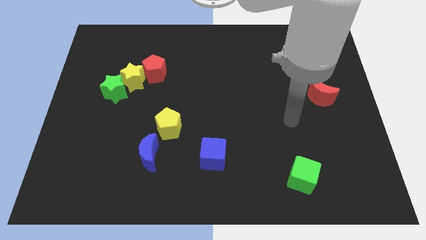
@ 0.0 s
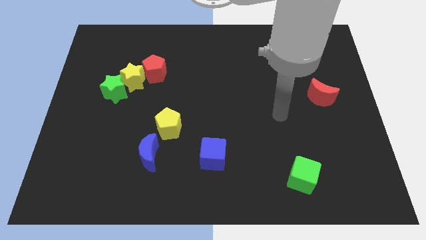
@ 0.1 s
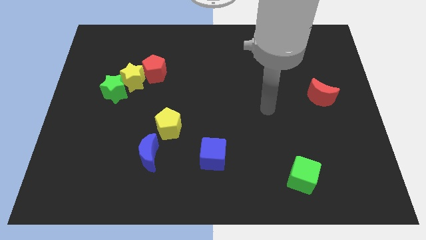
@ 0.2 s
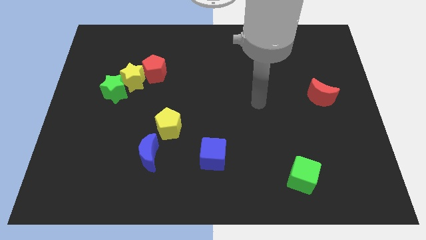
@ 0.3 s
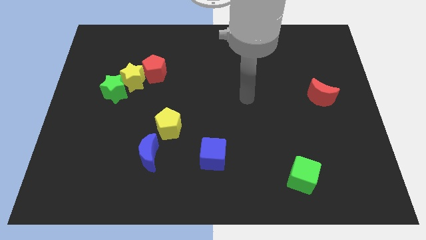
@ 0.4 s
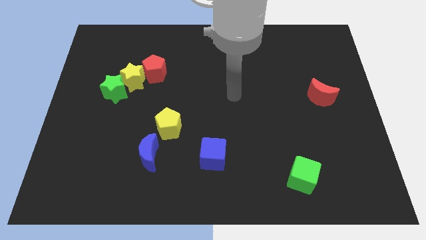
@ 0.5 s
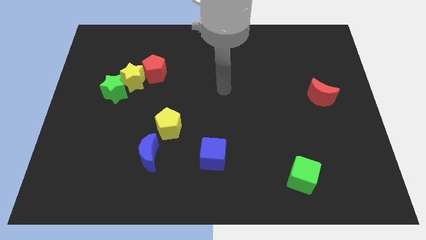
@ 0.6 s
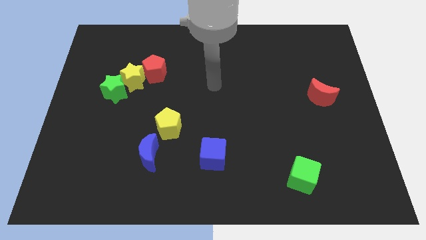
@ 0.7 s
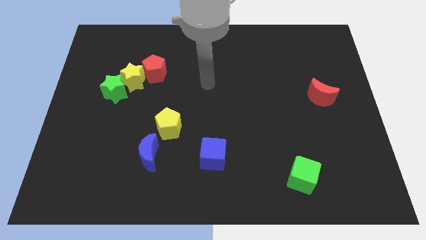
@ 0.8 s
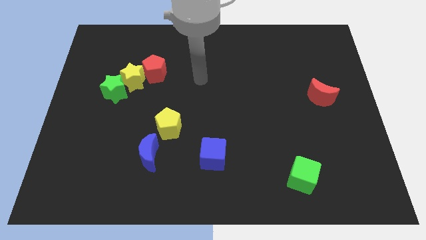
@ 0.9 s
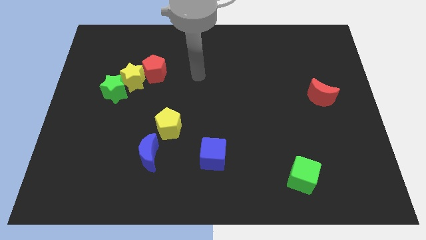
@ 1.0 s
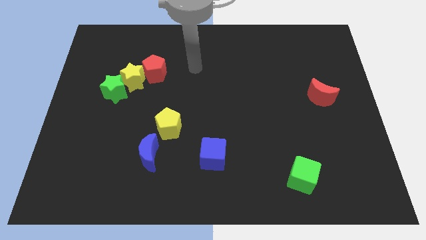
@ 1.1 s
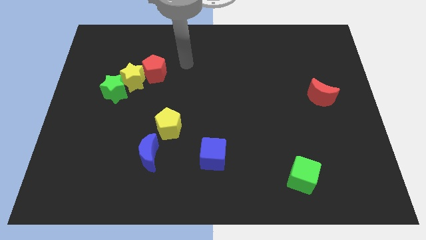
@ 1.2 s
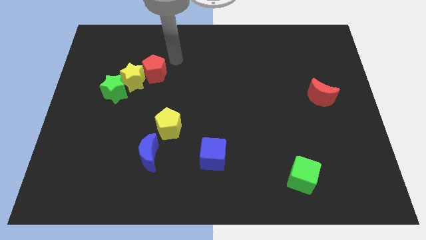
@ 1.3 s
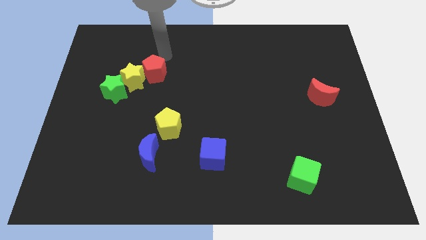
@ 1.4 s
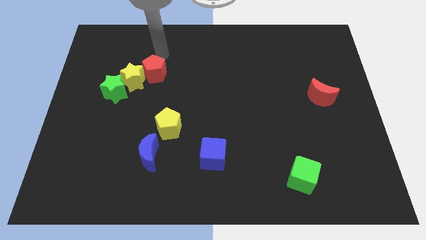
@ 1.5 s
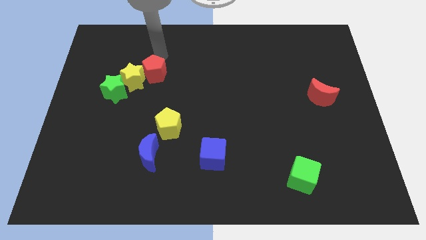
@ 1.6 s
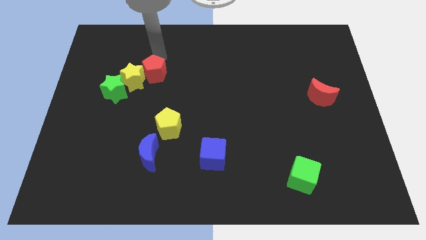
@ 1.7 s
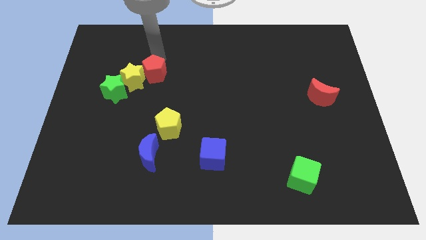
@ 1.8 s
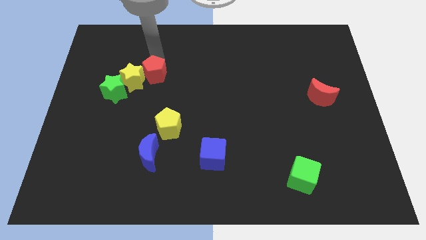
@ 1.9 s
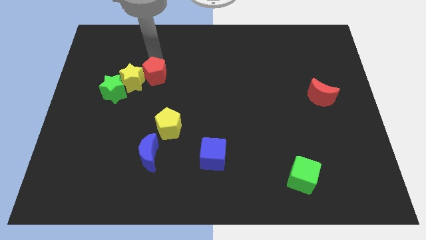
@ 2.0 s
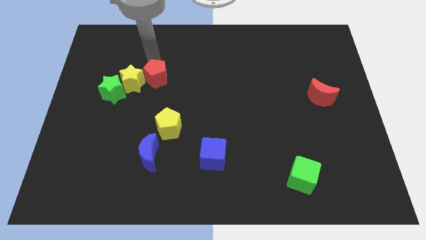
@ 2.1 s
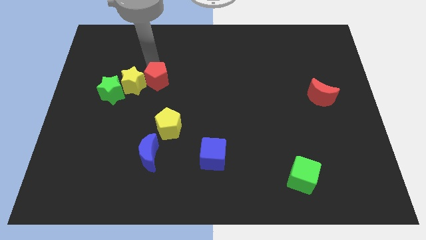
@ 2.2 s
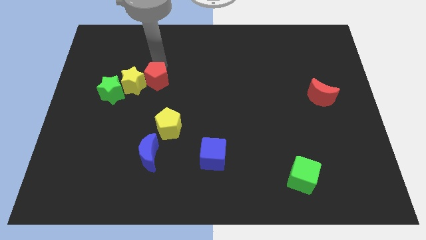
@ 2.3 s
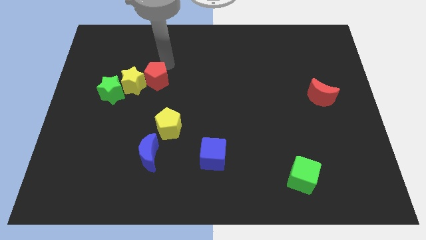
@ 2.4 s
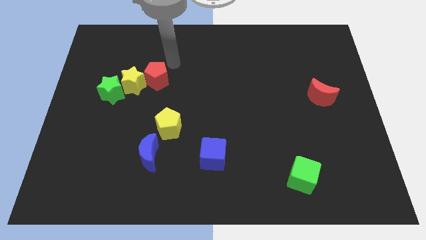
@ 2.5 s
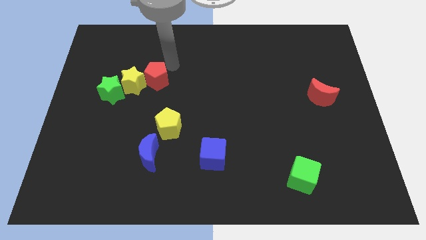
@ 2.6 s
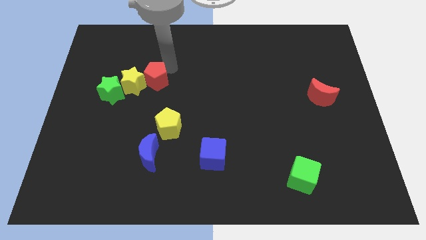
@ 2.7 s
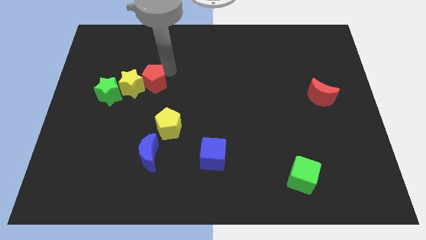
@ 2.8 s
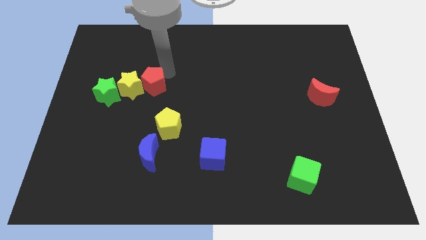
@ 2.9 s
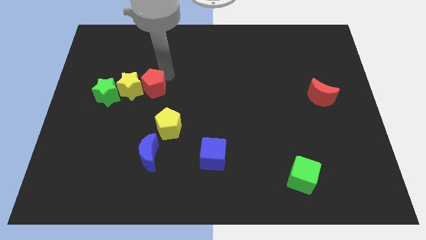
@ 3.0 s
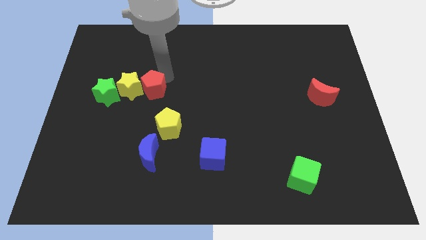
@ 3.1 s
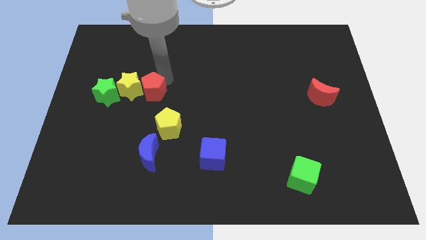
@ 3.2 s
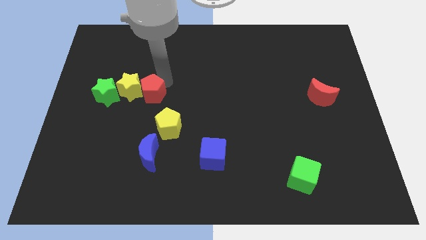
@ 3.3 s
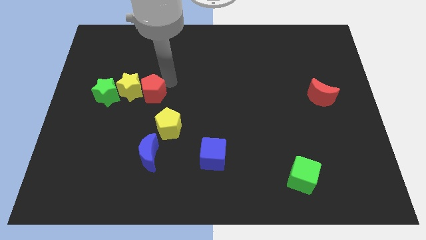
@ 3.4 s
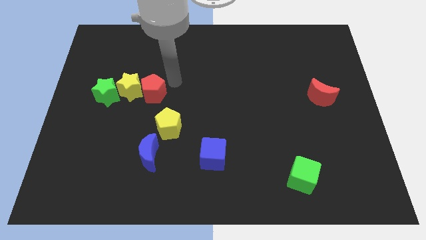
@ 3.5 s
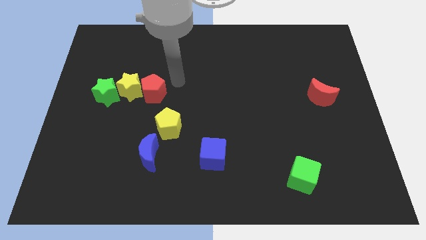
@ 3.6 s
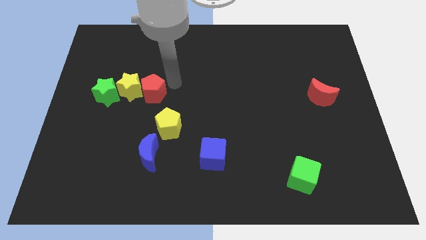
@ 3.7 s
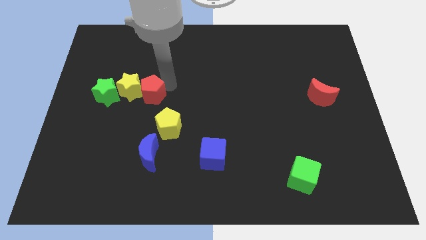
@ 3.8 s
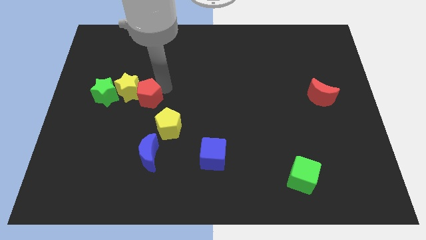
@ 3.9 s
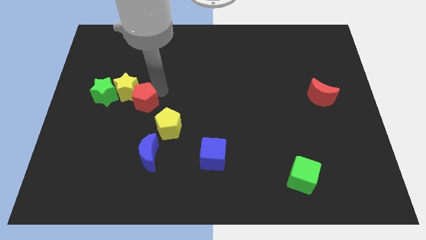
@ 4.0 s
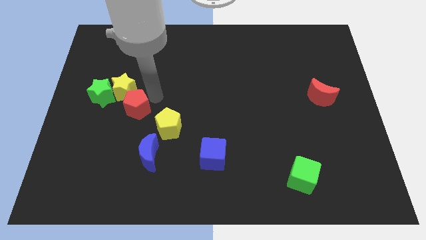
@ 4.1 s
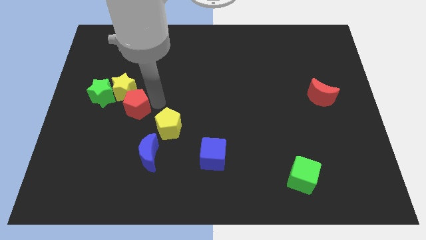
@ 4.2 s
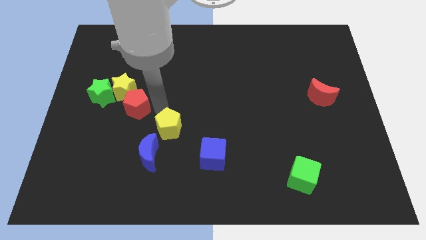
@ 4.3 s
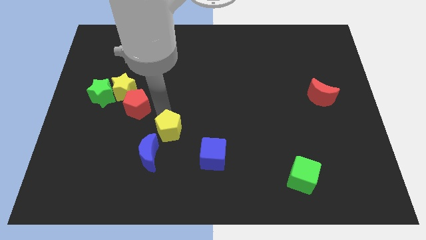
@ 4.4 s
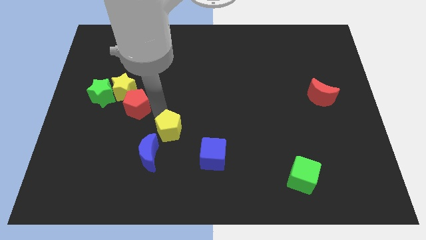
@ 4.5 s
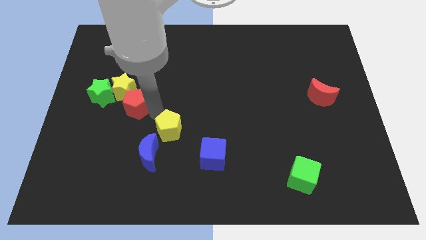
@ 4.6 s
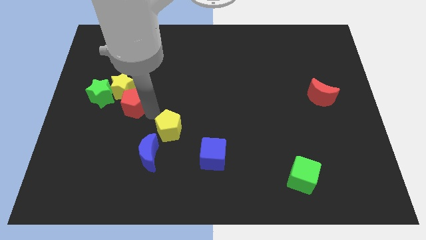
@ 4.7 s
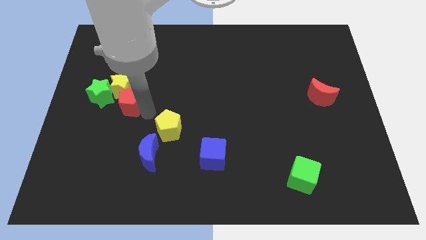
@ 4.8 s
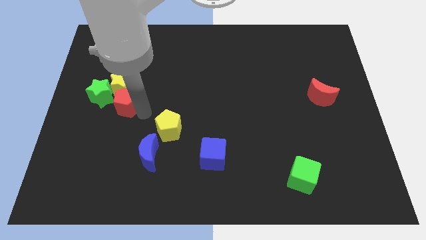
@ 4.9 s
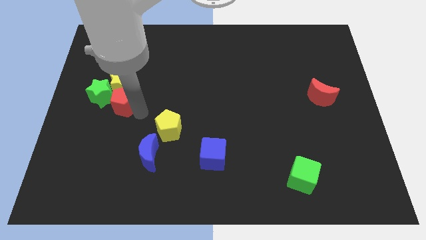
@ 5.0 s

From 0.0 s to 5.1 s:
put the red pentagon towards the green star

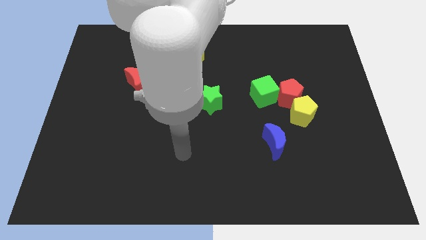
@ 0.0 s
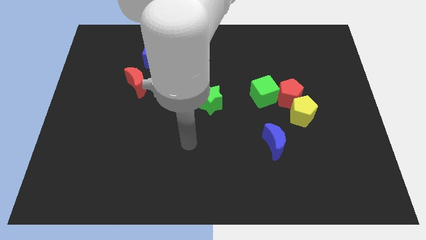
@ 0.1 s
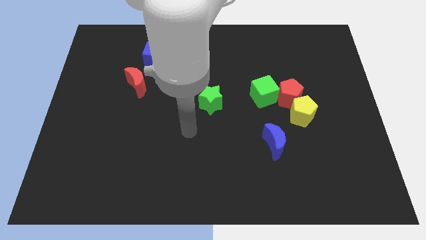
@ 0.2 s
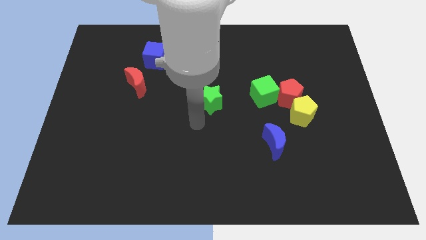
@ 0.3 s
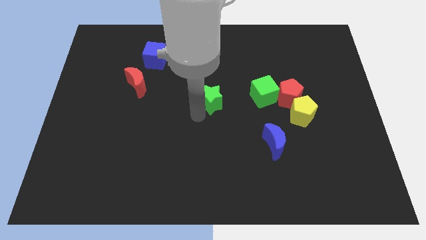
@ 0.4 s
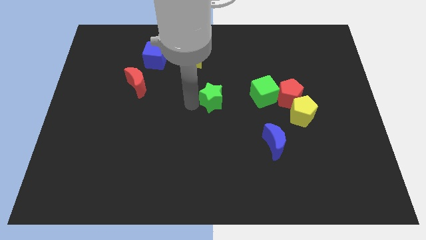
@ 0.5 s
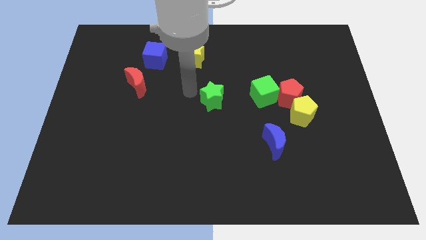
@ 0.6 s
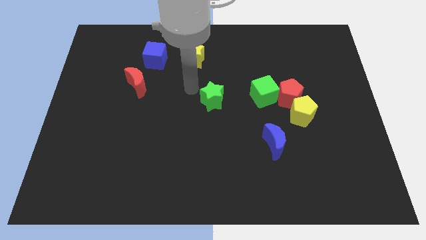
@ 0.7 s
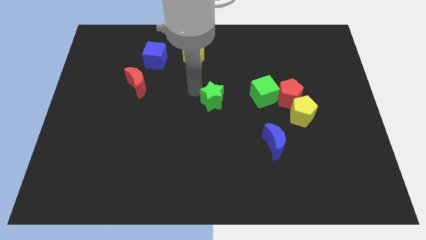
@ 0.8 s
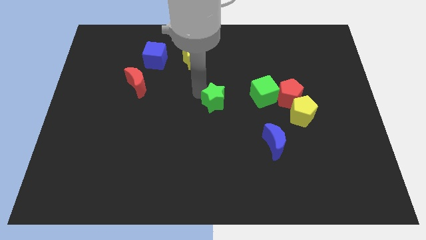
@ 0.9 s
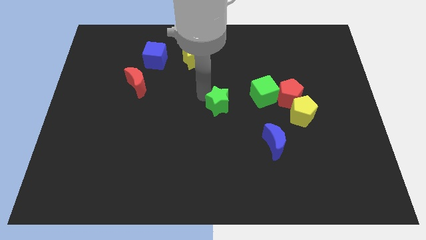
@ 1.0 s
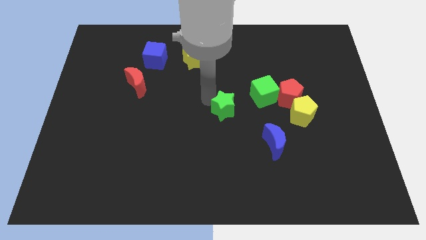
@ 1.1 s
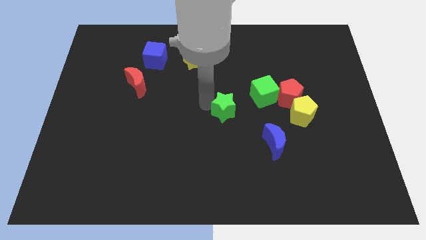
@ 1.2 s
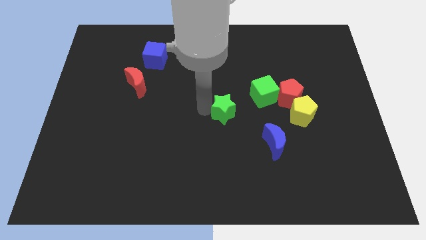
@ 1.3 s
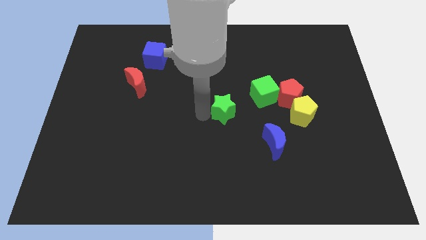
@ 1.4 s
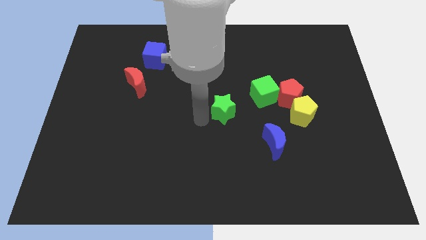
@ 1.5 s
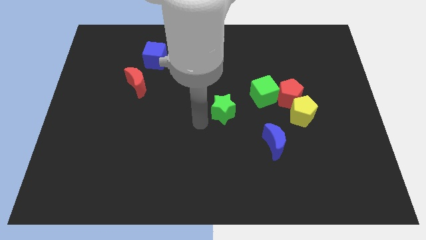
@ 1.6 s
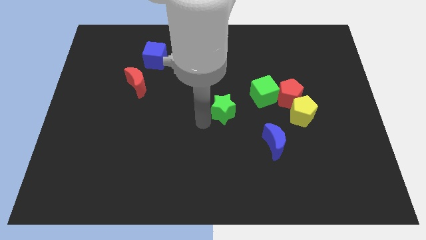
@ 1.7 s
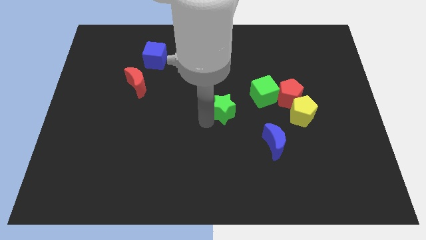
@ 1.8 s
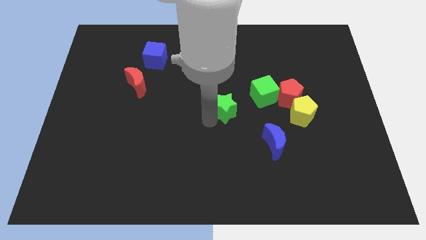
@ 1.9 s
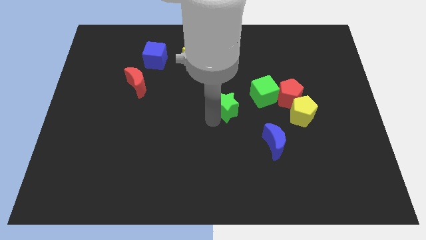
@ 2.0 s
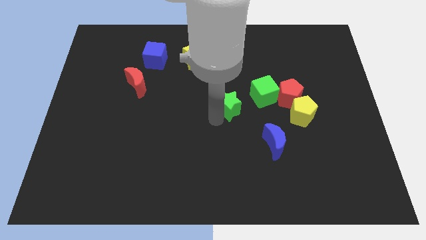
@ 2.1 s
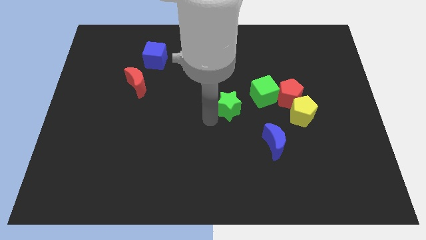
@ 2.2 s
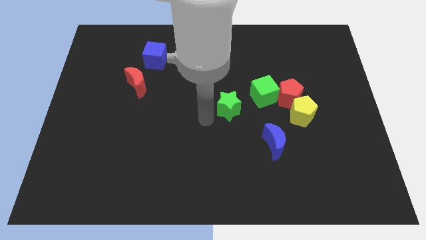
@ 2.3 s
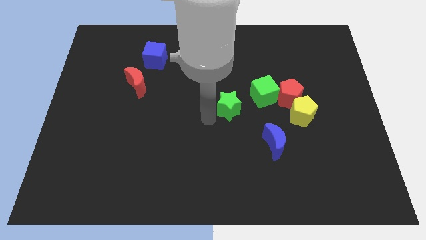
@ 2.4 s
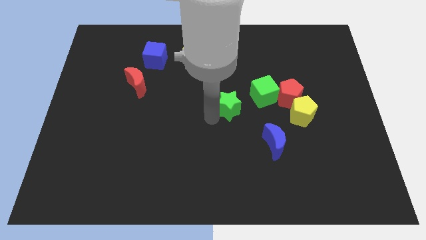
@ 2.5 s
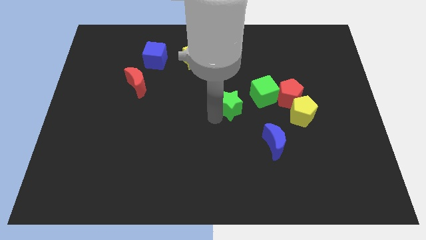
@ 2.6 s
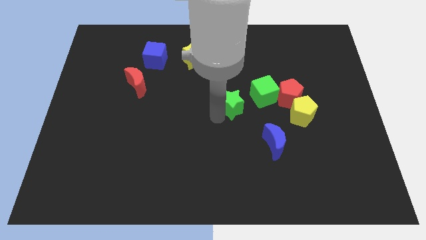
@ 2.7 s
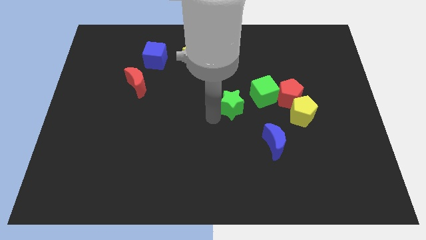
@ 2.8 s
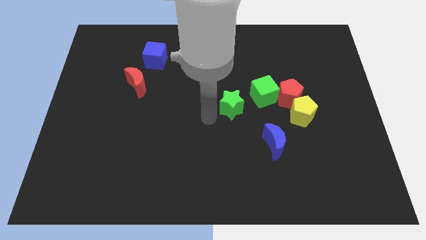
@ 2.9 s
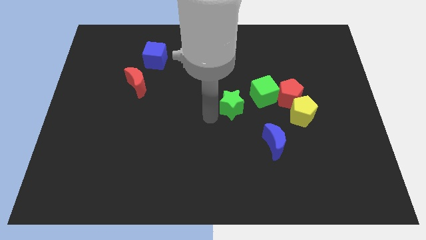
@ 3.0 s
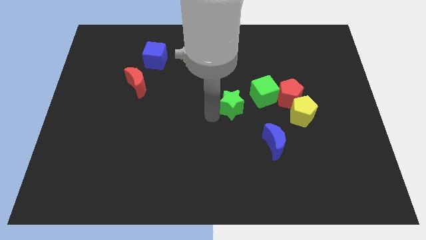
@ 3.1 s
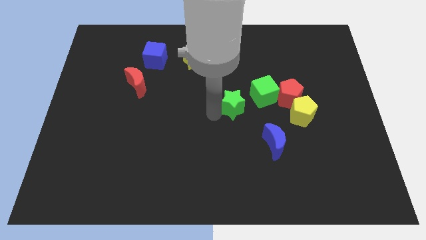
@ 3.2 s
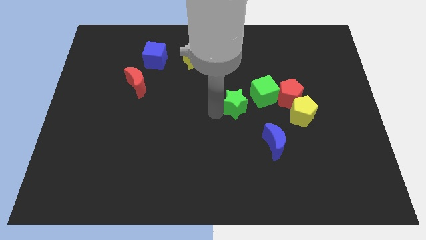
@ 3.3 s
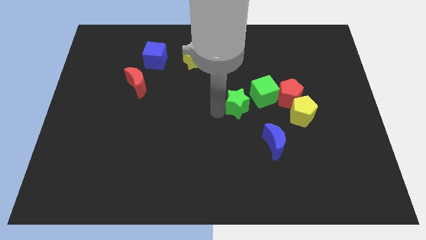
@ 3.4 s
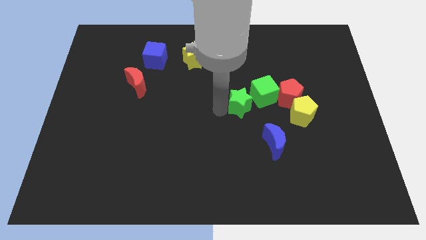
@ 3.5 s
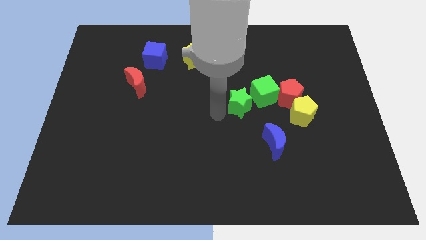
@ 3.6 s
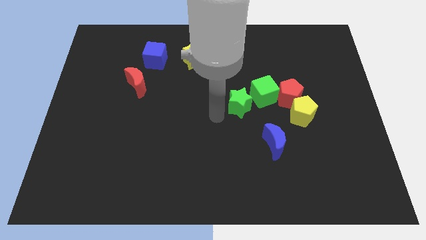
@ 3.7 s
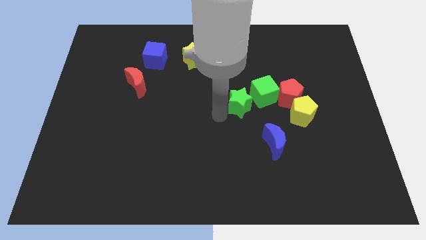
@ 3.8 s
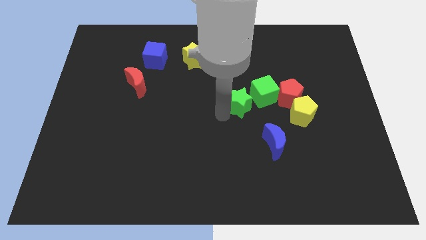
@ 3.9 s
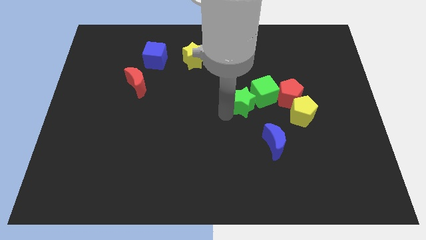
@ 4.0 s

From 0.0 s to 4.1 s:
push the green star next to the green cube
